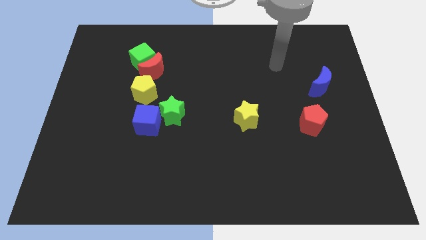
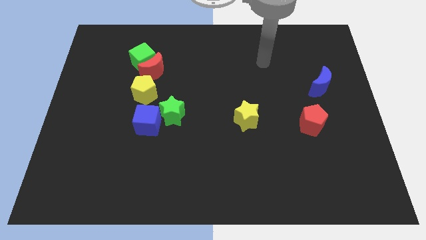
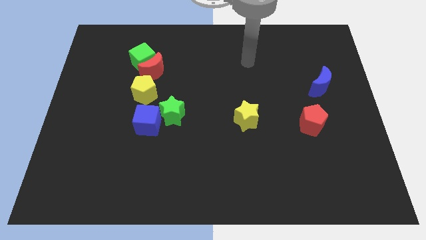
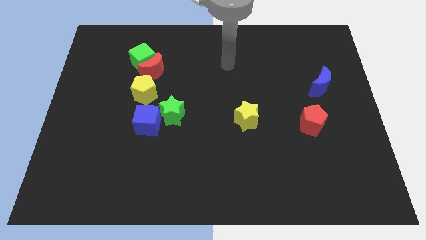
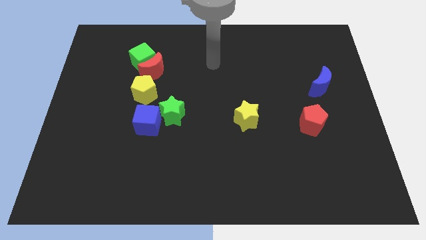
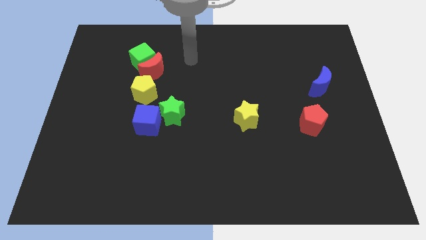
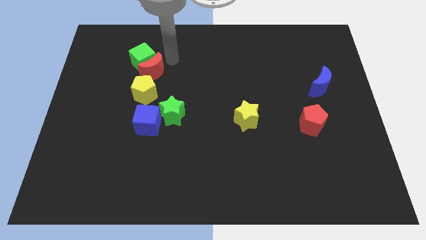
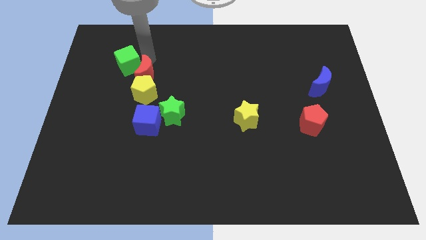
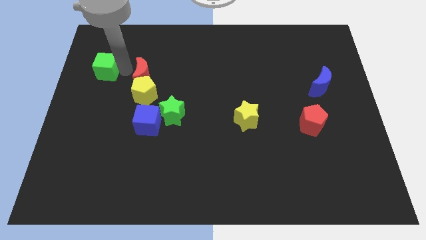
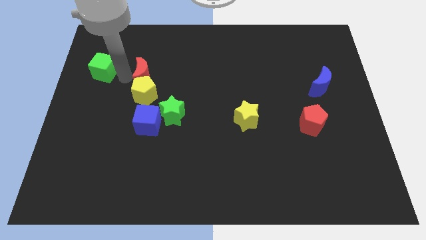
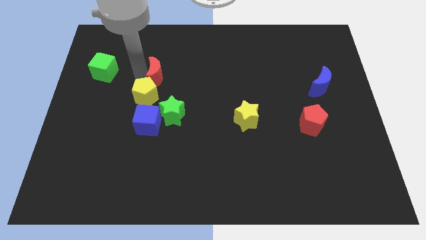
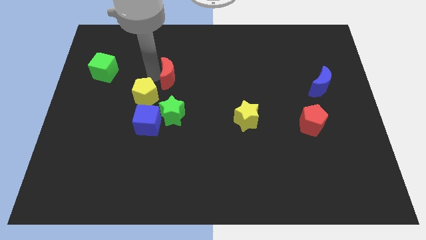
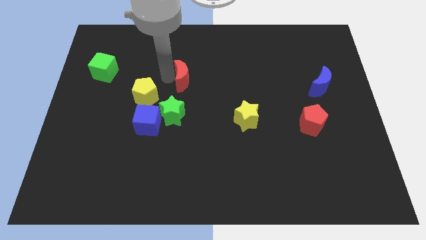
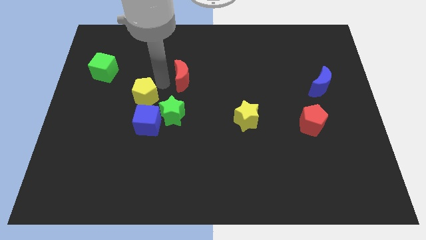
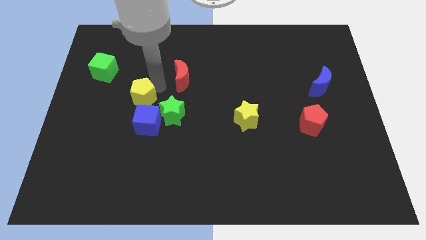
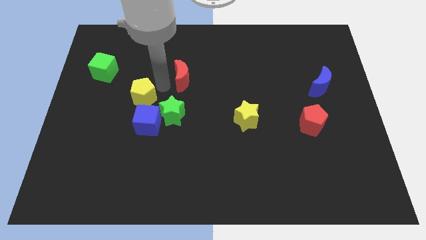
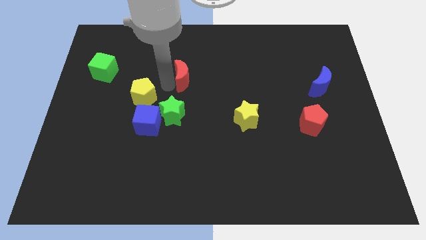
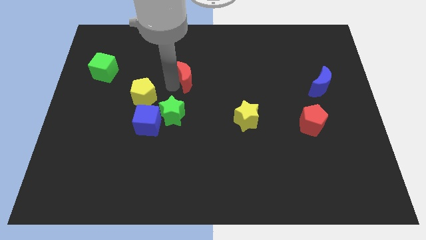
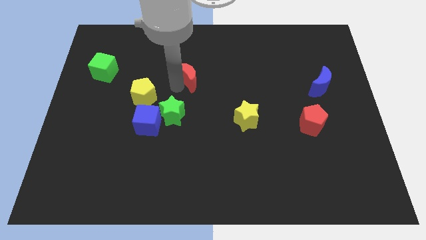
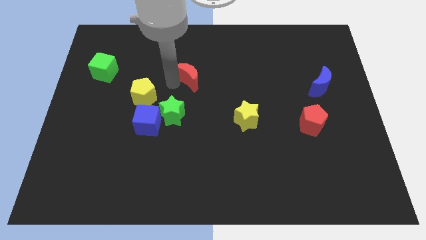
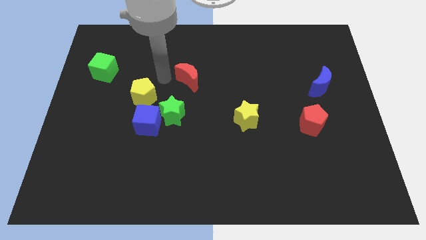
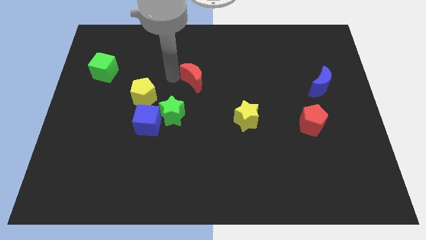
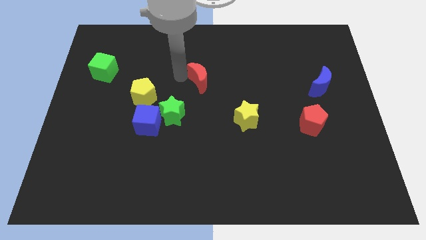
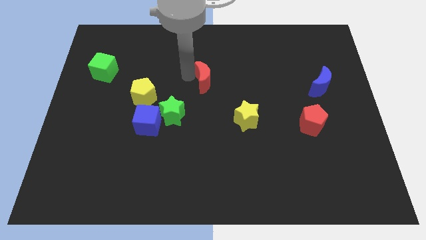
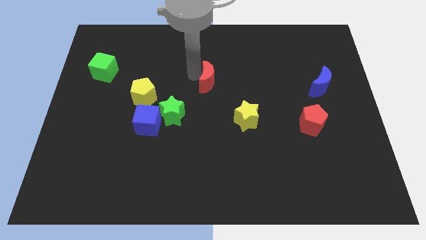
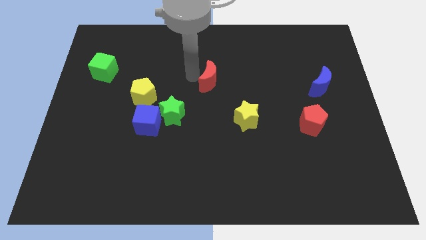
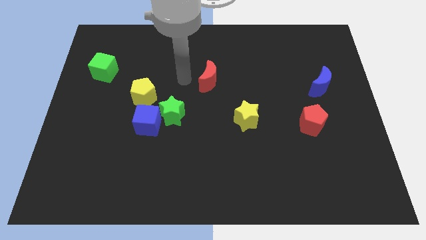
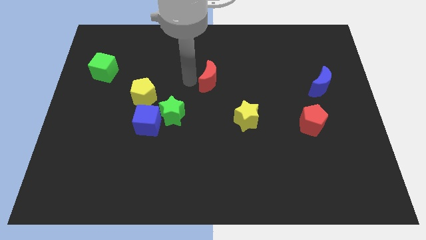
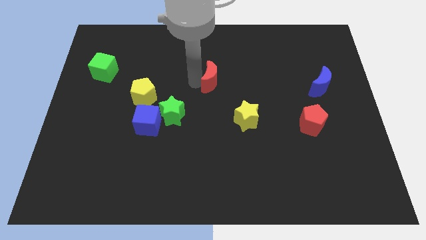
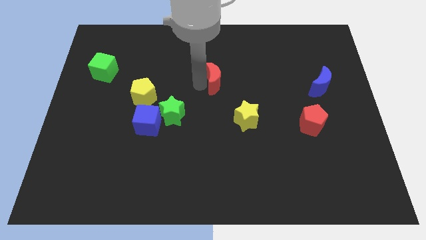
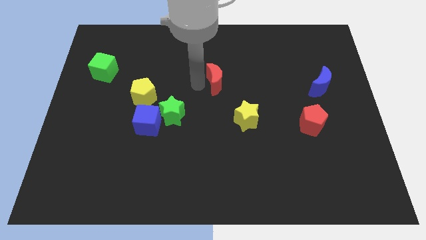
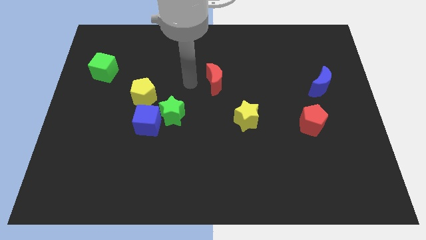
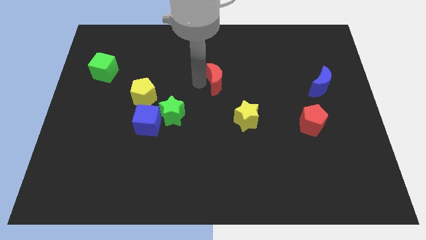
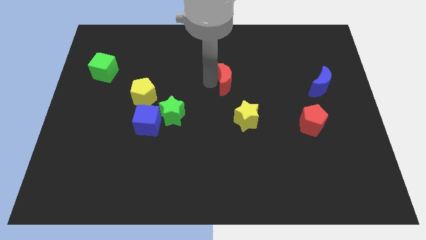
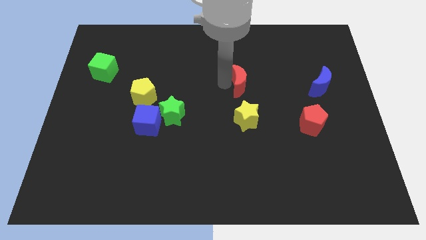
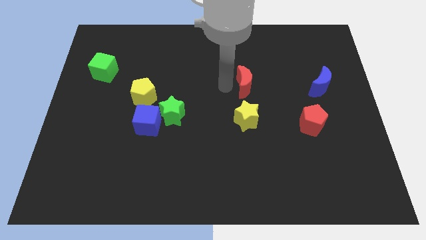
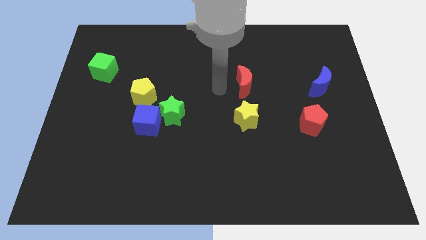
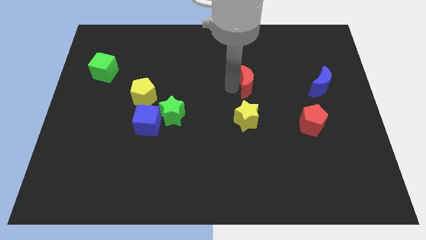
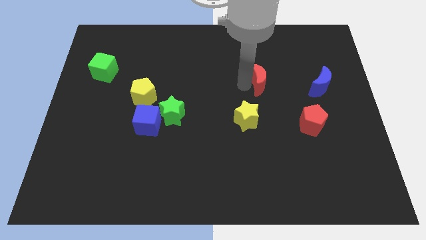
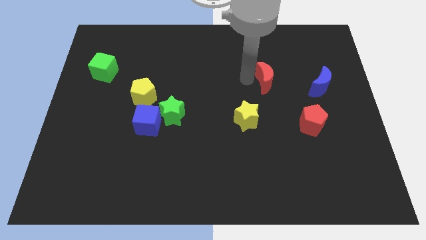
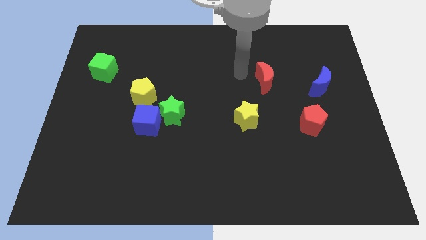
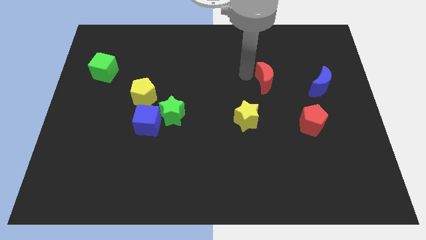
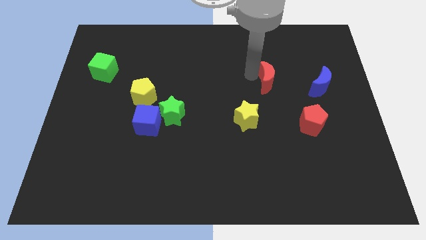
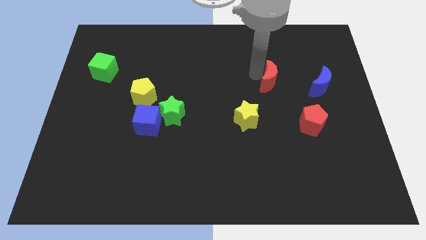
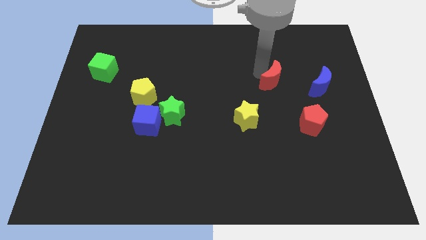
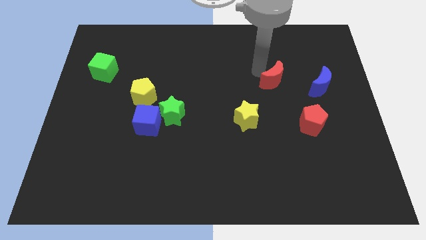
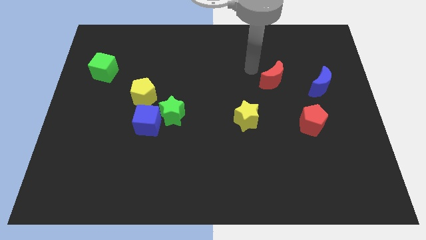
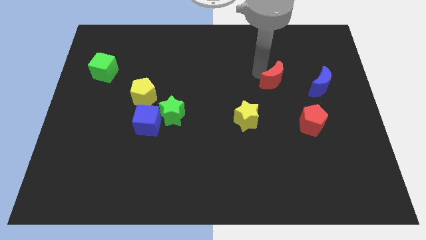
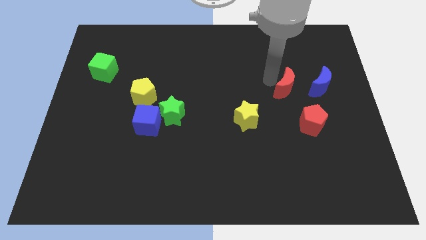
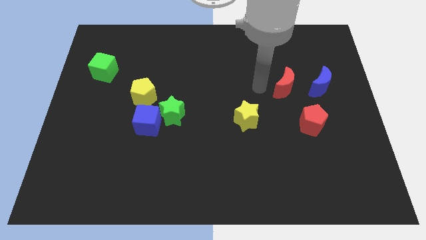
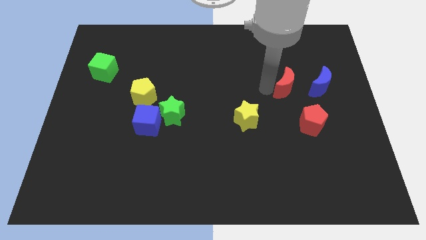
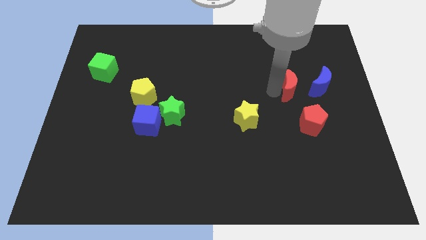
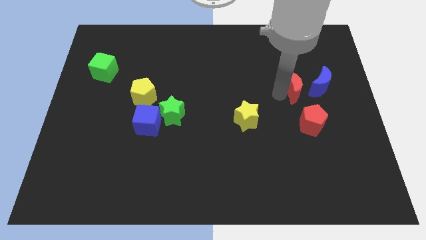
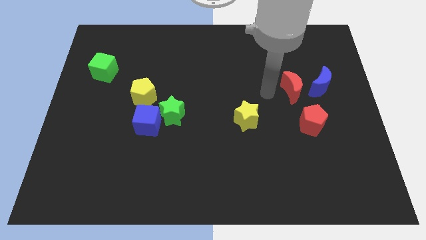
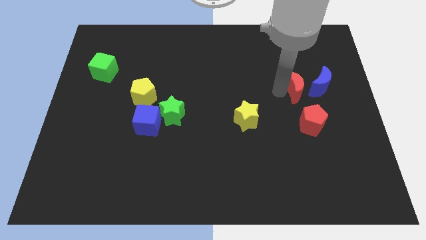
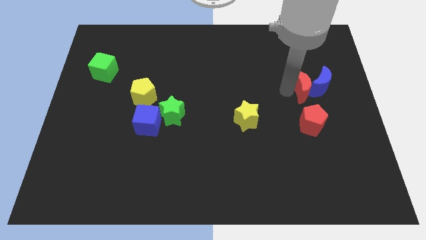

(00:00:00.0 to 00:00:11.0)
slide the red moon close to the blue moon

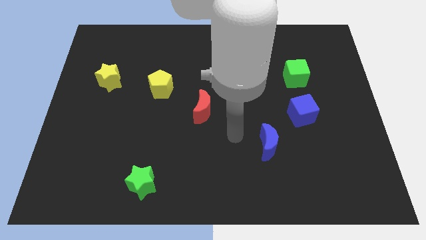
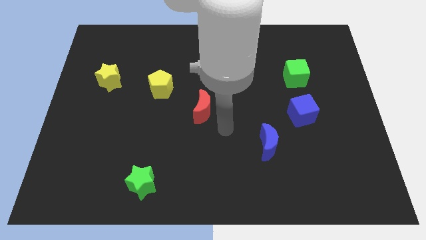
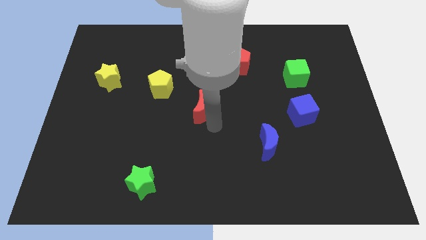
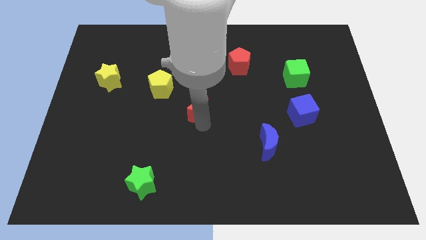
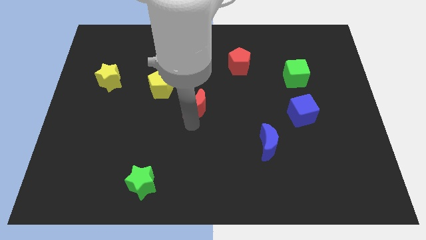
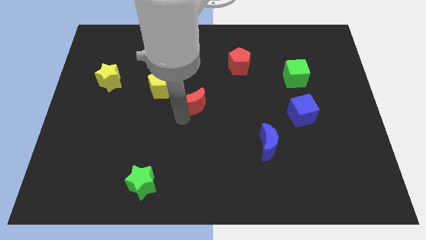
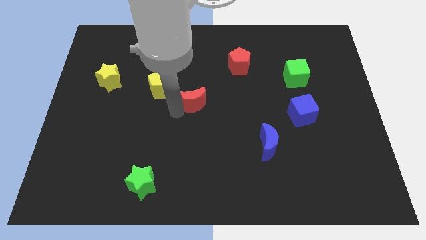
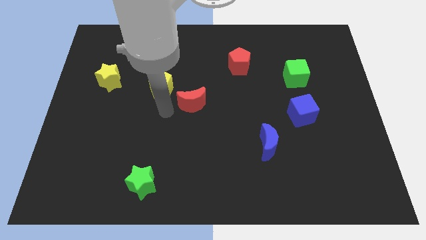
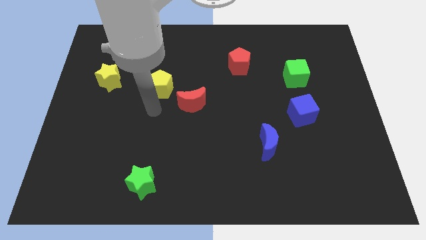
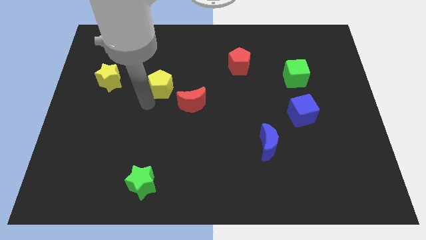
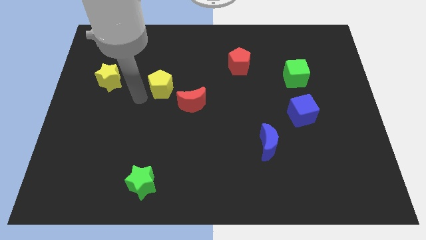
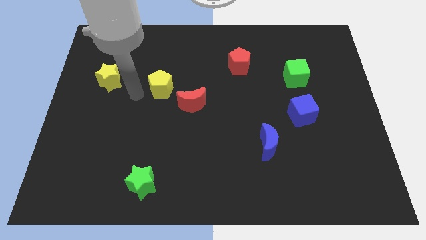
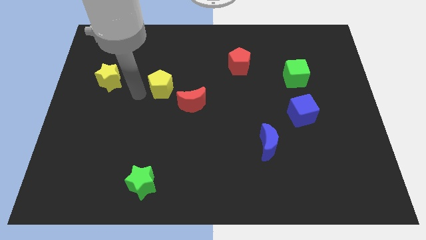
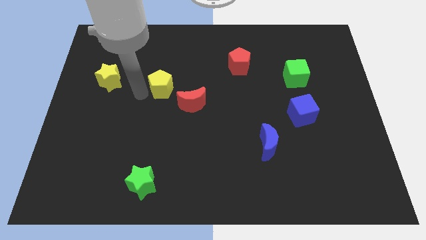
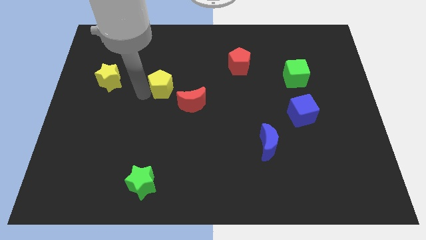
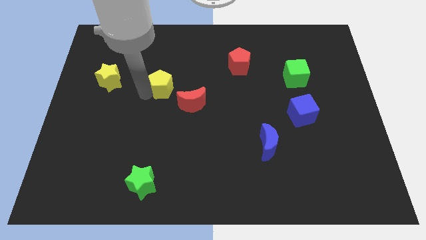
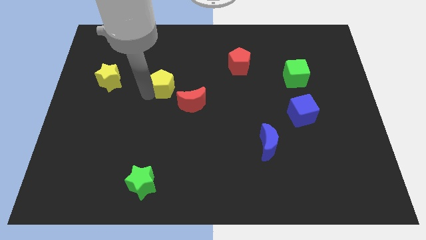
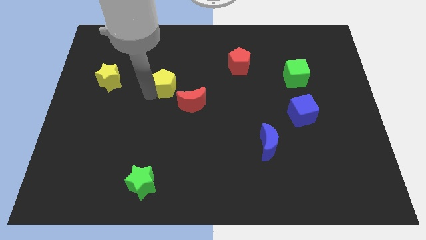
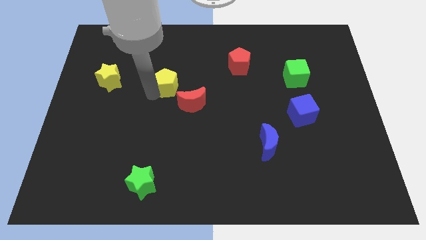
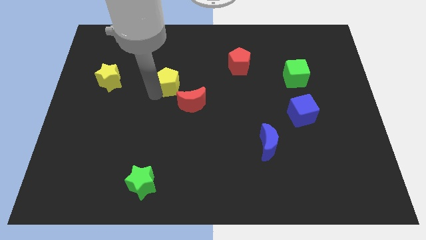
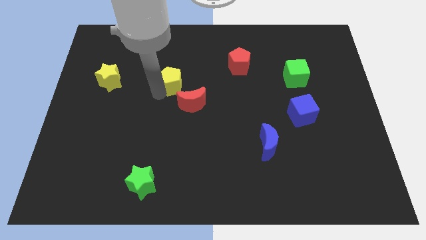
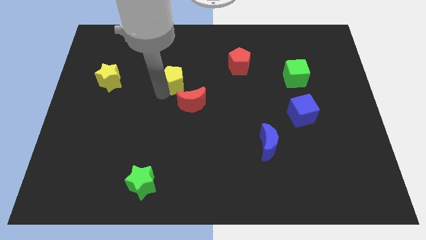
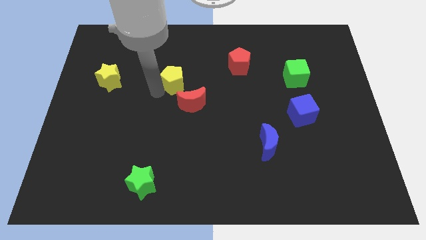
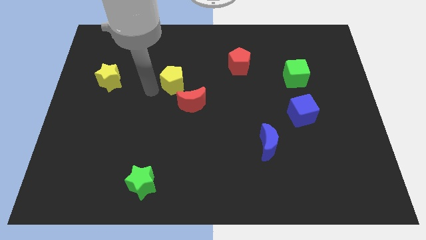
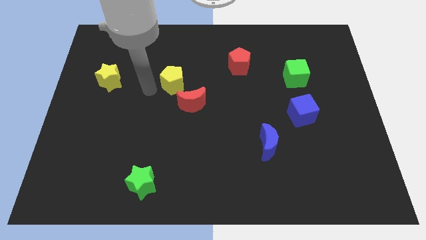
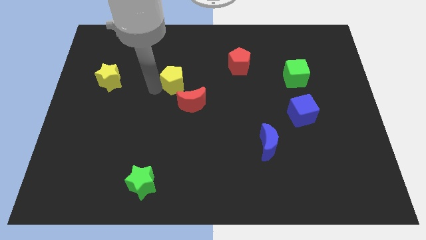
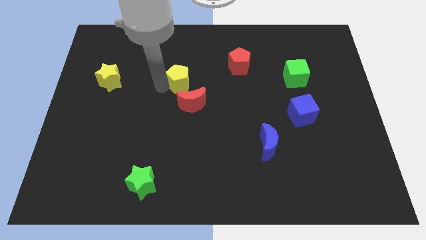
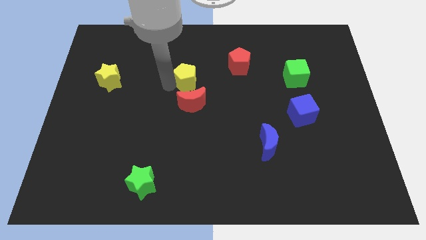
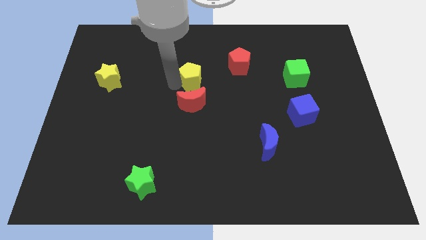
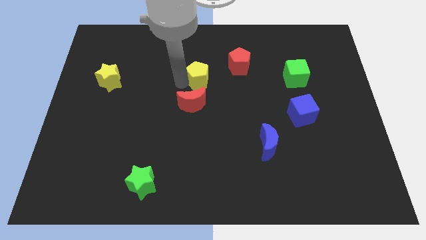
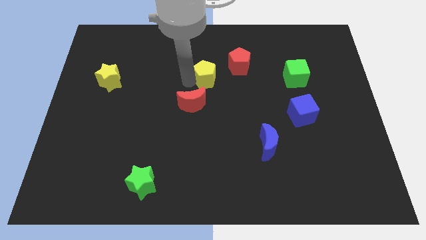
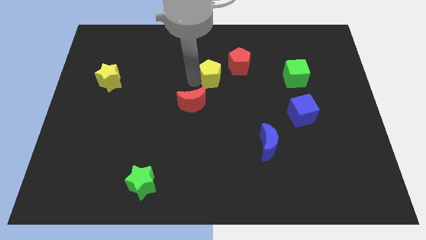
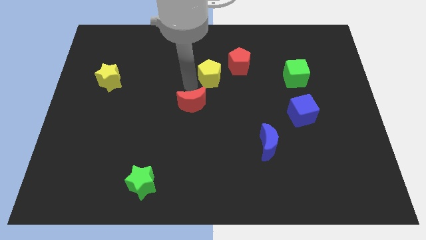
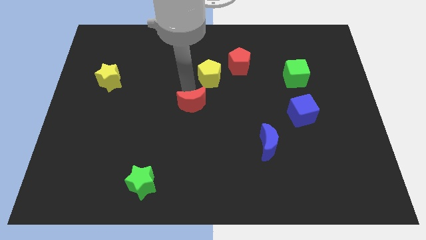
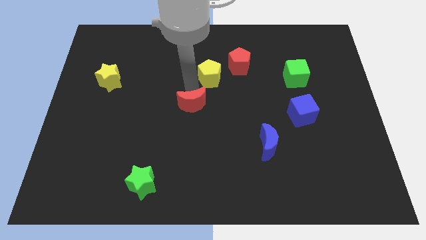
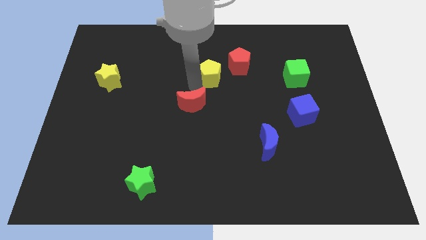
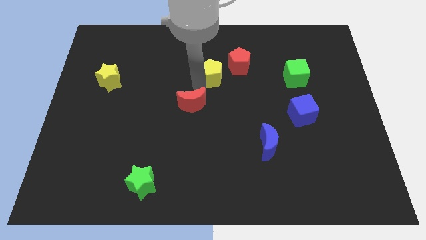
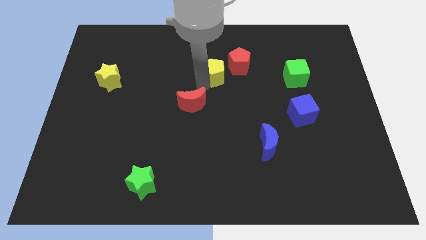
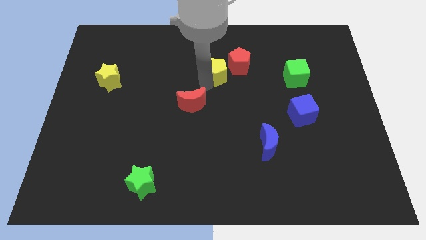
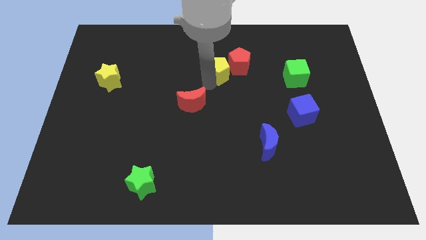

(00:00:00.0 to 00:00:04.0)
push the yellow pentagon next to the red pentagon
